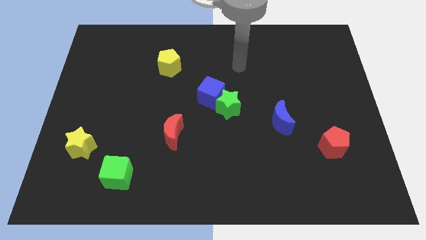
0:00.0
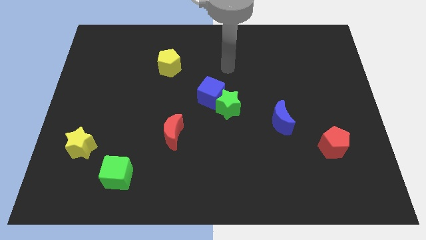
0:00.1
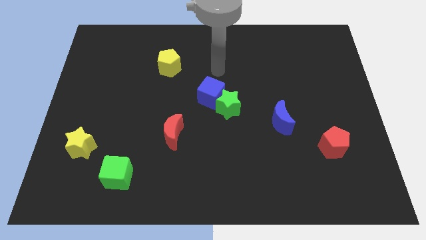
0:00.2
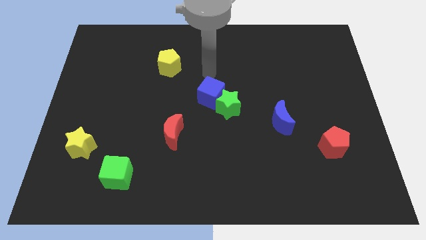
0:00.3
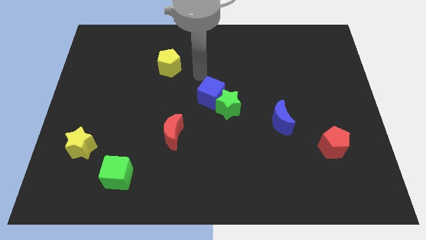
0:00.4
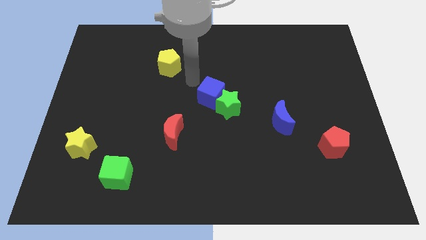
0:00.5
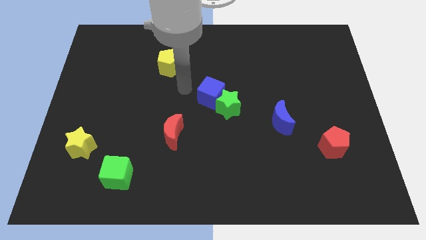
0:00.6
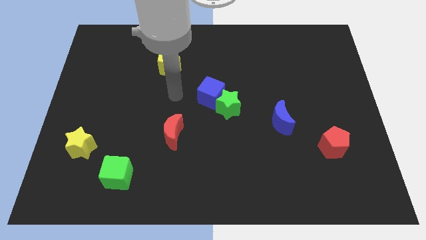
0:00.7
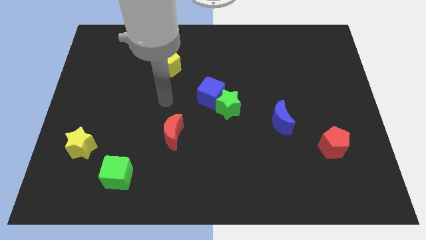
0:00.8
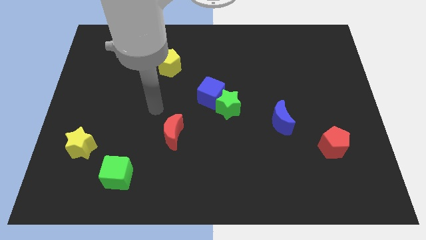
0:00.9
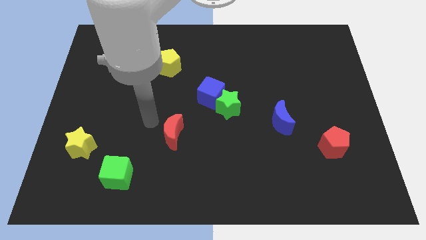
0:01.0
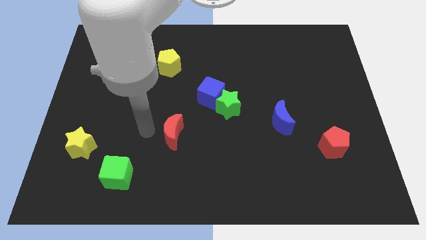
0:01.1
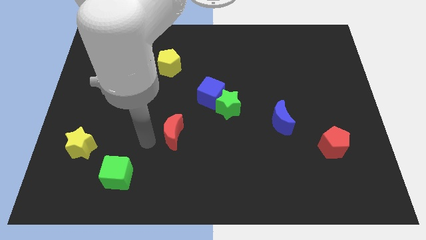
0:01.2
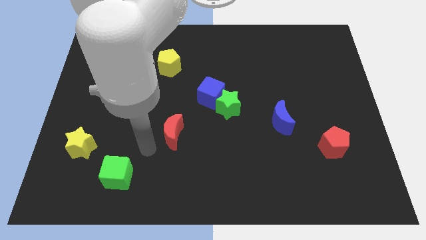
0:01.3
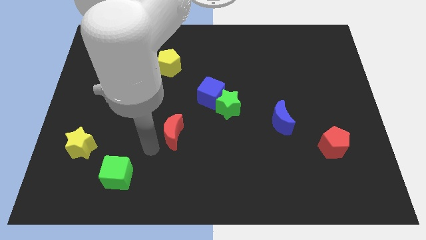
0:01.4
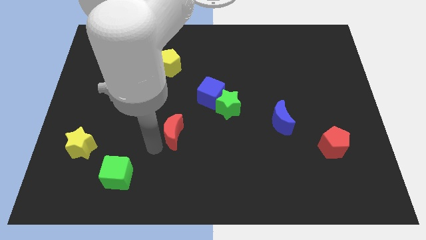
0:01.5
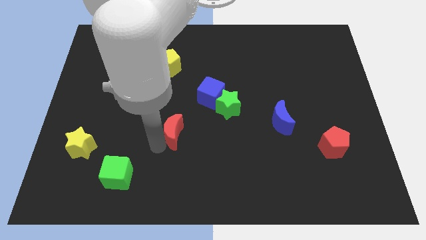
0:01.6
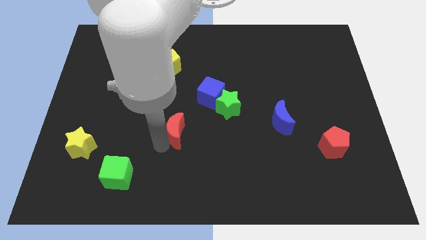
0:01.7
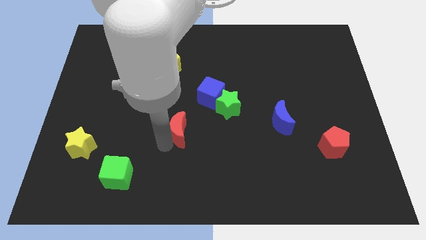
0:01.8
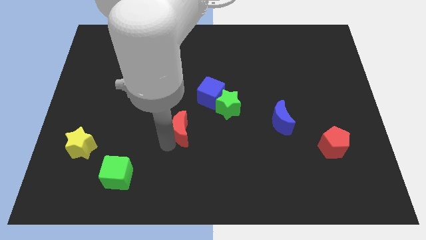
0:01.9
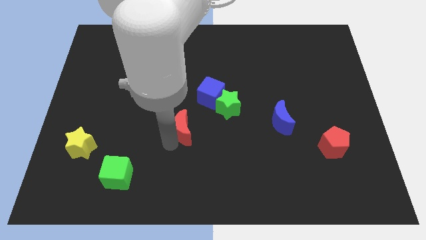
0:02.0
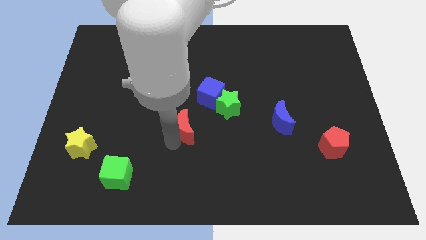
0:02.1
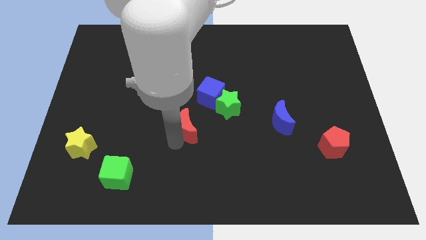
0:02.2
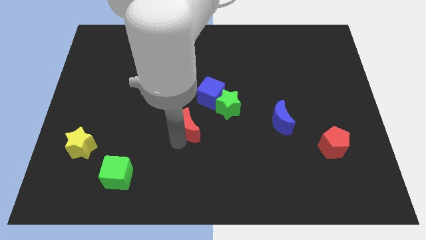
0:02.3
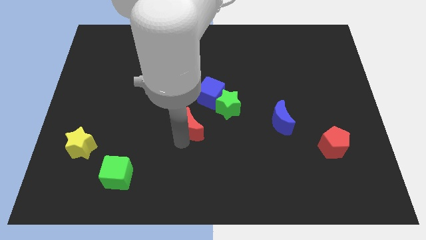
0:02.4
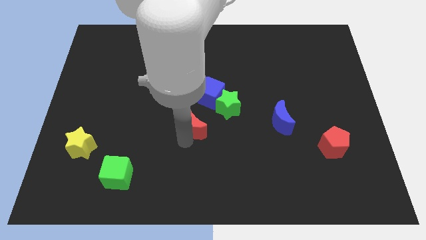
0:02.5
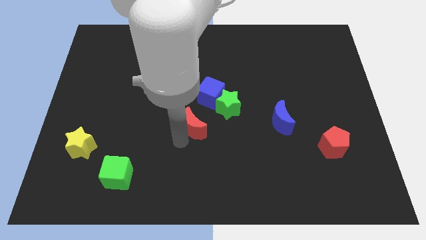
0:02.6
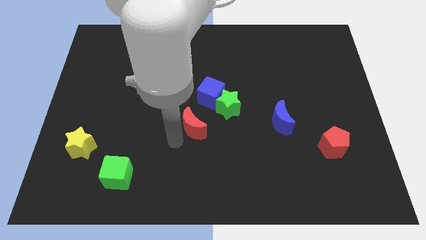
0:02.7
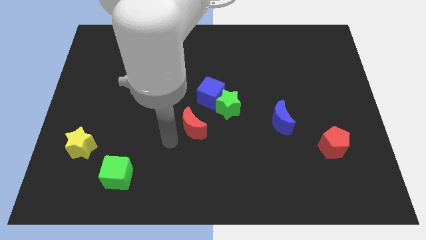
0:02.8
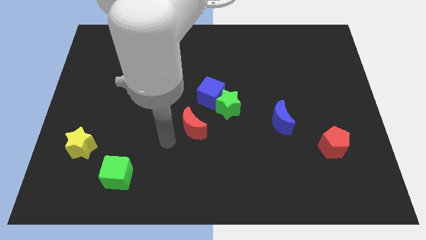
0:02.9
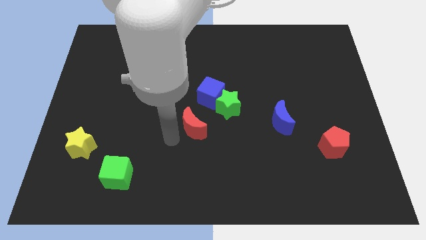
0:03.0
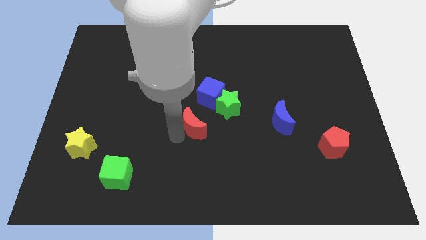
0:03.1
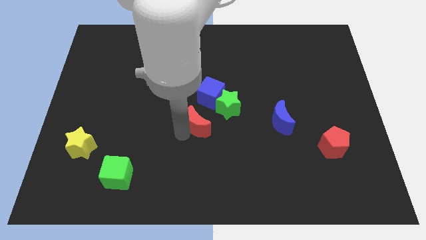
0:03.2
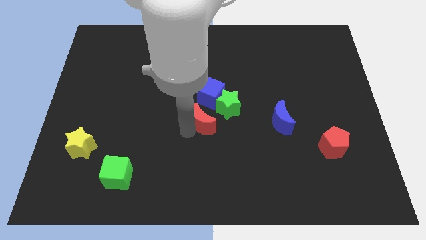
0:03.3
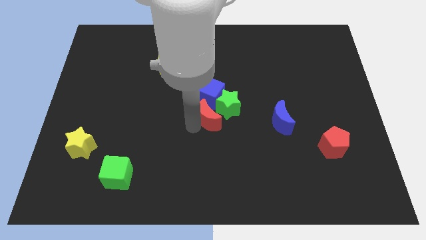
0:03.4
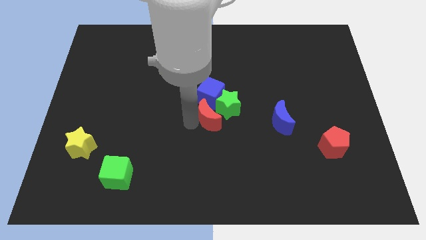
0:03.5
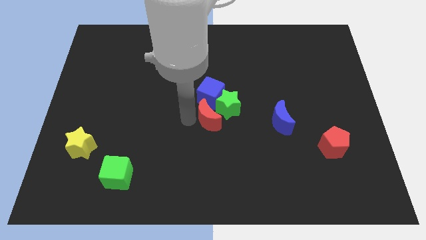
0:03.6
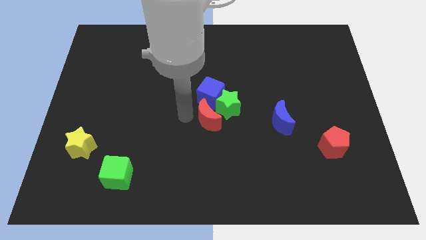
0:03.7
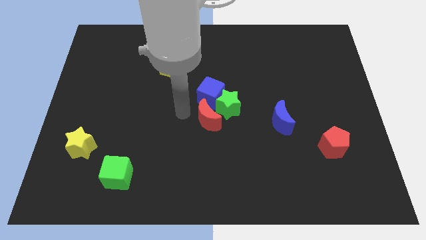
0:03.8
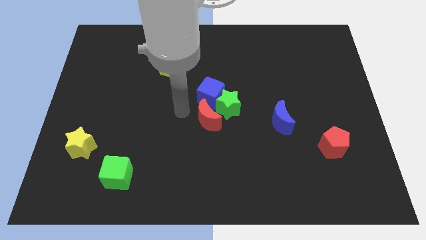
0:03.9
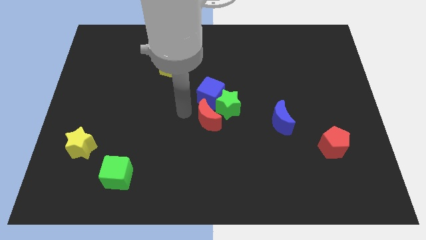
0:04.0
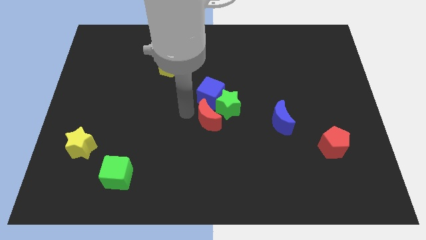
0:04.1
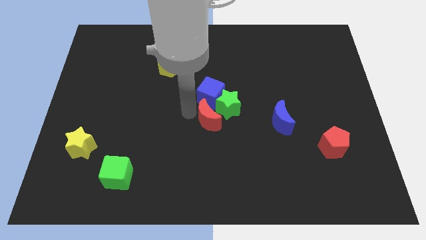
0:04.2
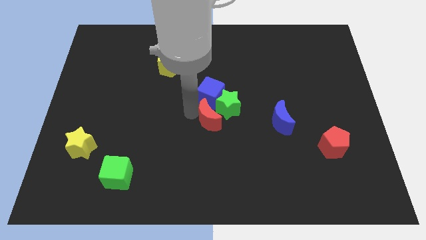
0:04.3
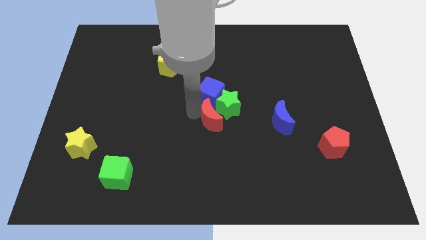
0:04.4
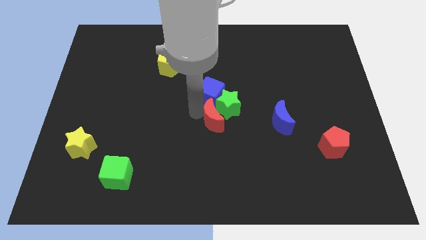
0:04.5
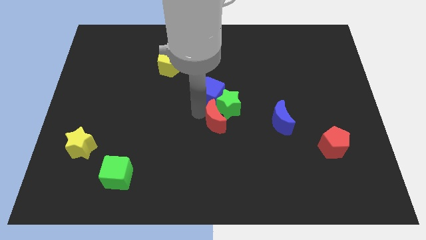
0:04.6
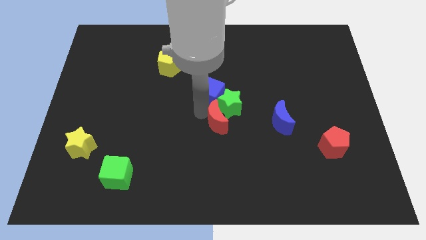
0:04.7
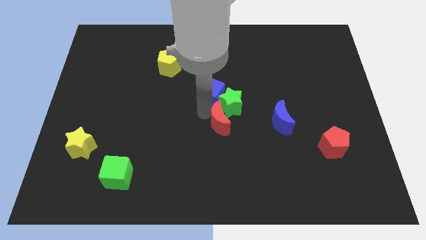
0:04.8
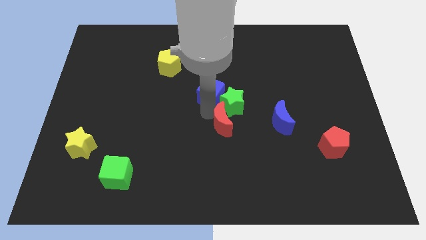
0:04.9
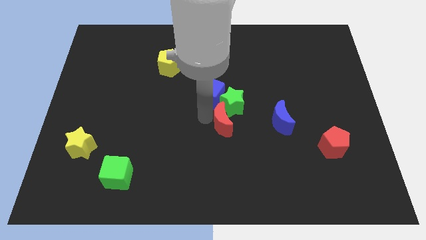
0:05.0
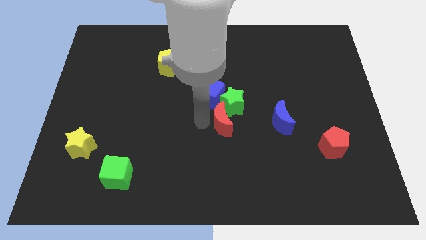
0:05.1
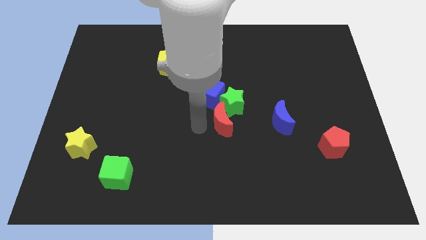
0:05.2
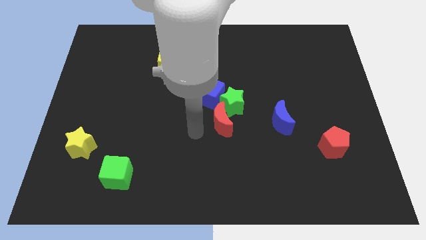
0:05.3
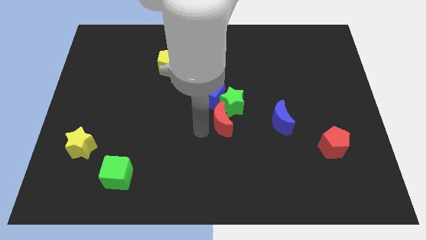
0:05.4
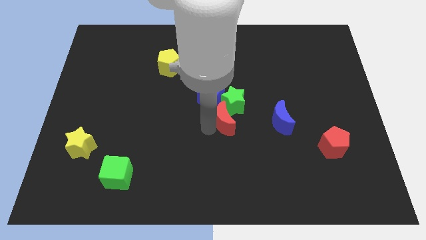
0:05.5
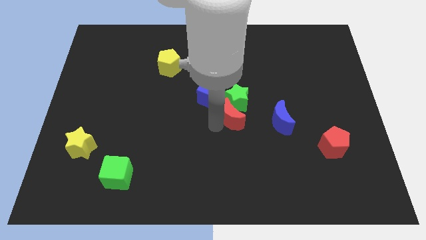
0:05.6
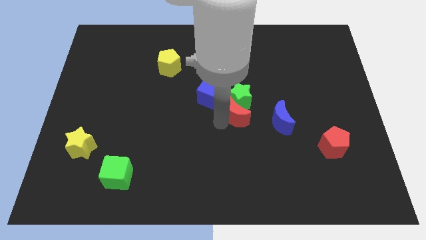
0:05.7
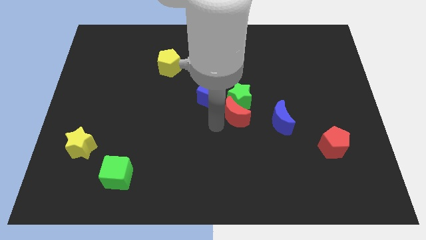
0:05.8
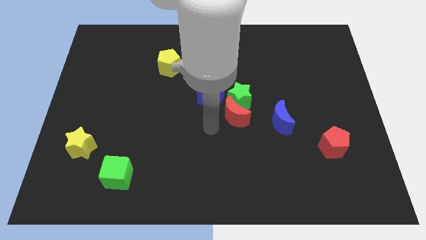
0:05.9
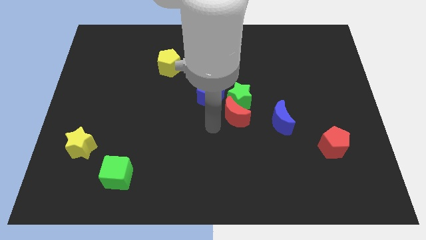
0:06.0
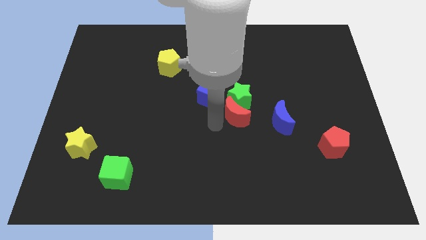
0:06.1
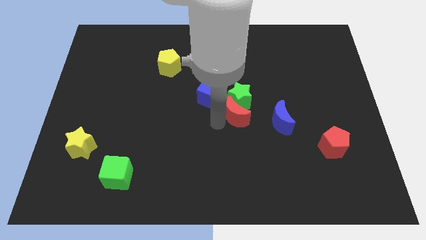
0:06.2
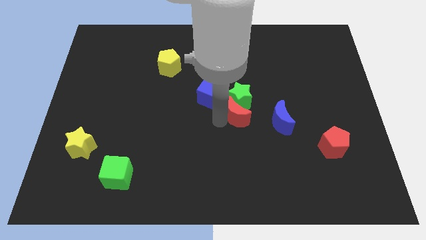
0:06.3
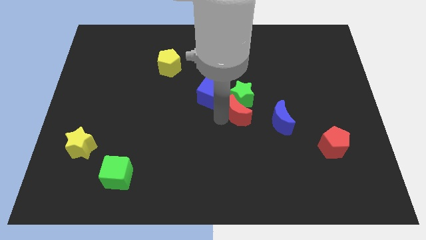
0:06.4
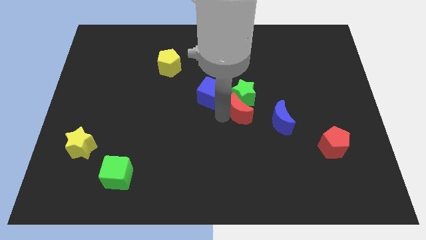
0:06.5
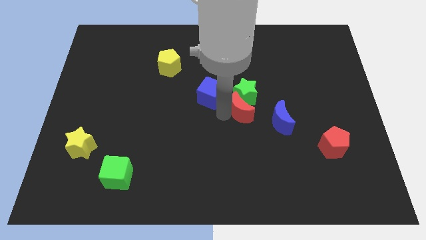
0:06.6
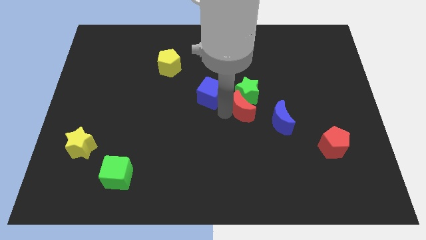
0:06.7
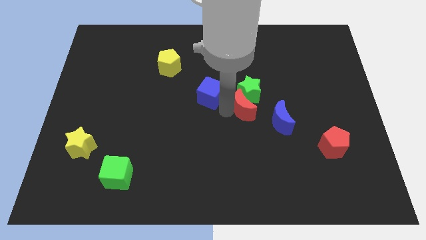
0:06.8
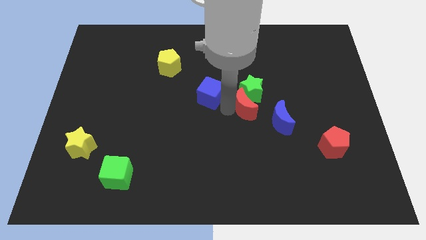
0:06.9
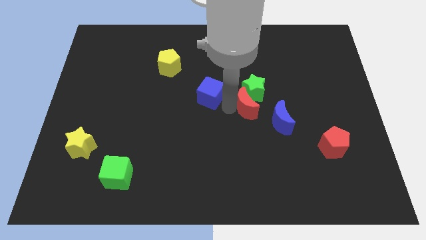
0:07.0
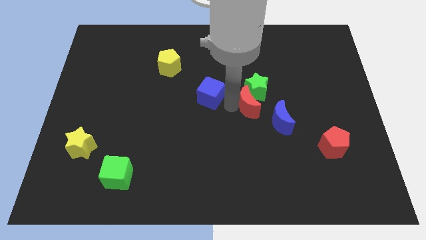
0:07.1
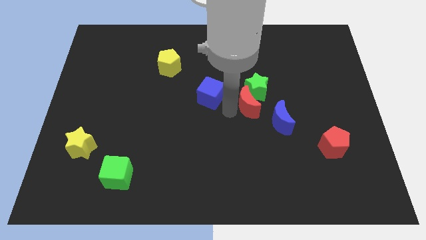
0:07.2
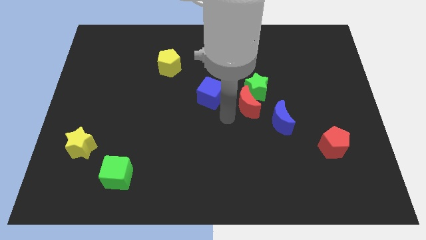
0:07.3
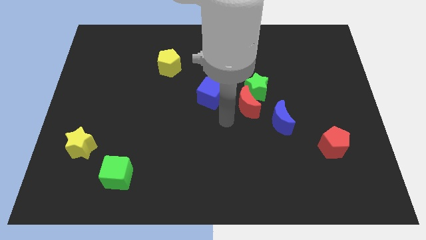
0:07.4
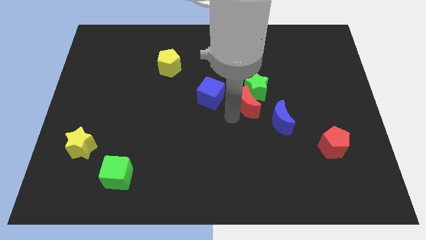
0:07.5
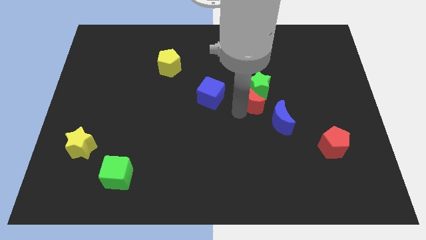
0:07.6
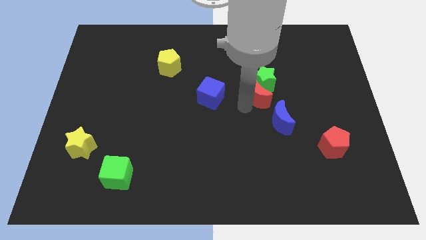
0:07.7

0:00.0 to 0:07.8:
move the red moon above the blue moon
